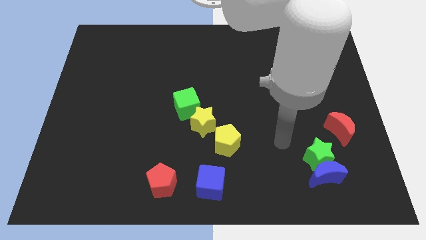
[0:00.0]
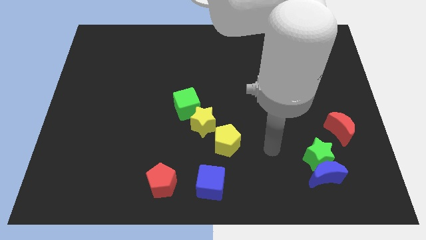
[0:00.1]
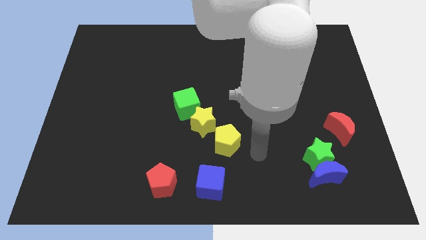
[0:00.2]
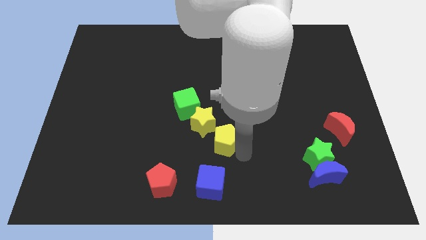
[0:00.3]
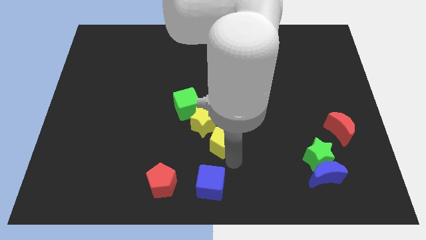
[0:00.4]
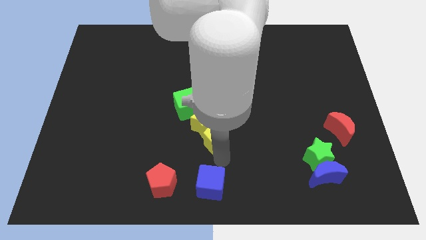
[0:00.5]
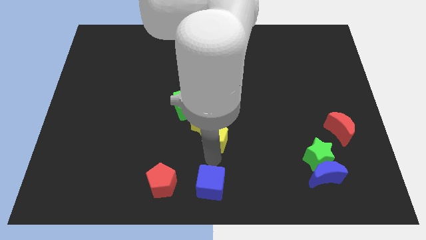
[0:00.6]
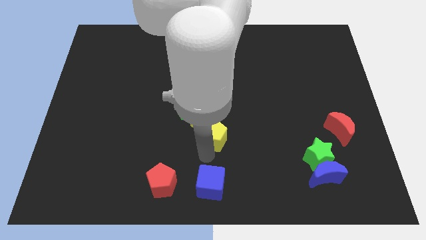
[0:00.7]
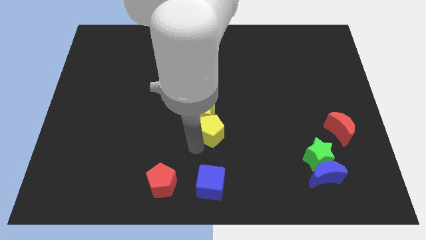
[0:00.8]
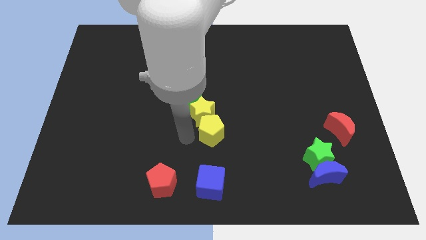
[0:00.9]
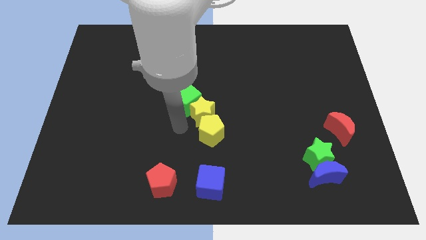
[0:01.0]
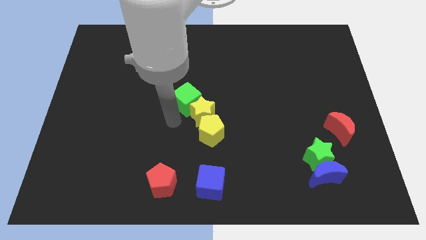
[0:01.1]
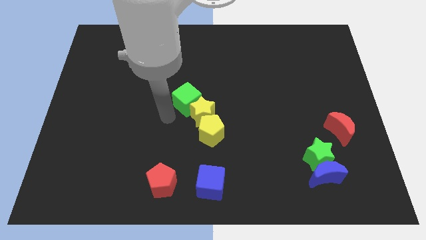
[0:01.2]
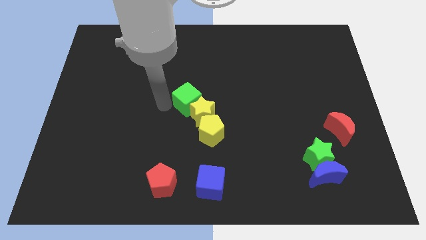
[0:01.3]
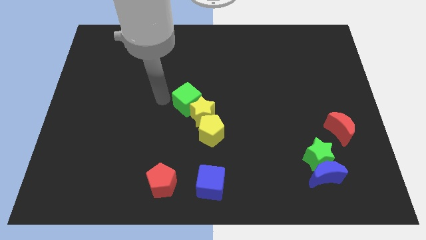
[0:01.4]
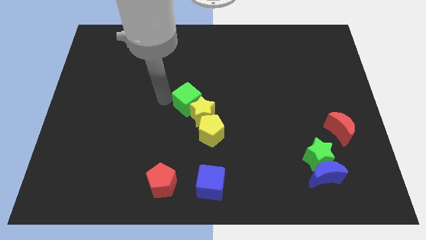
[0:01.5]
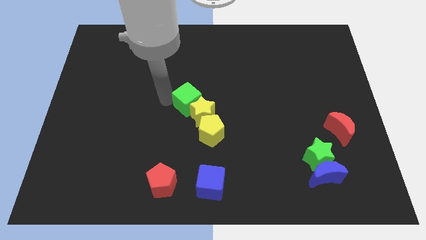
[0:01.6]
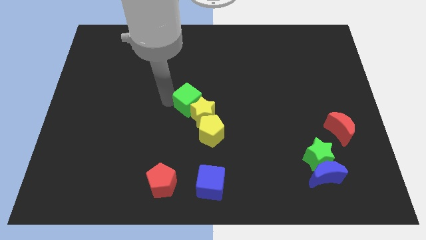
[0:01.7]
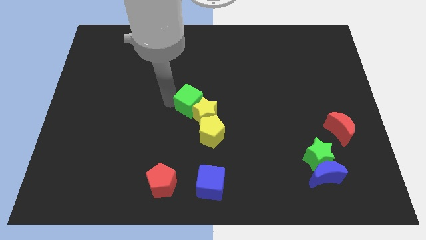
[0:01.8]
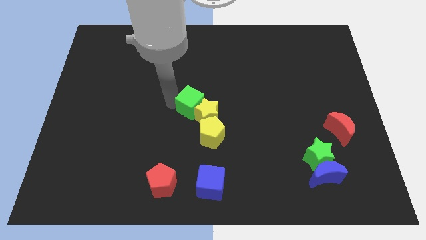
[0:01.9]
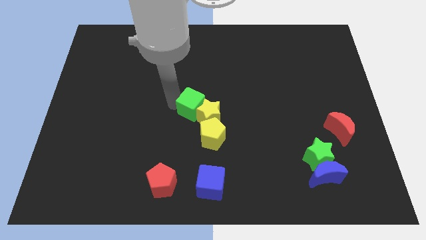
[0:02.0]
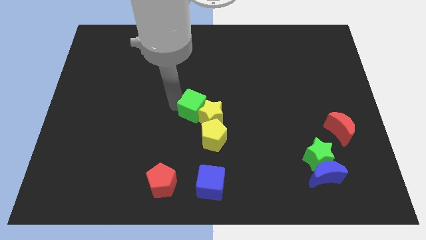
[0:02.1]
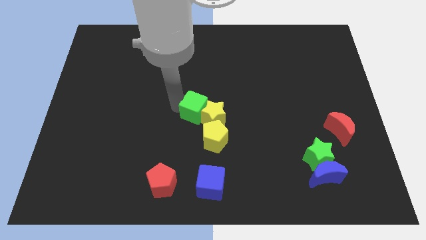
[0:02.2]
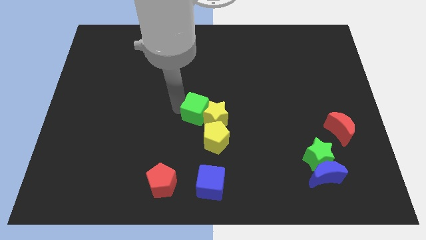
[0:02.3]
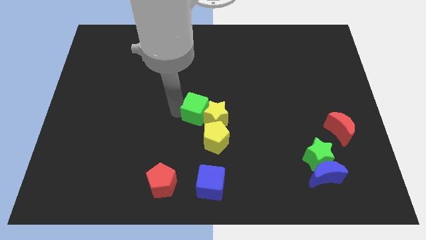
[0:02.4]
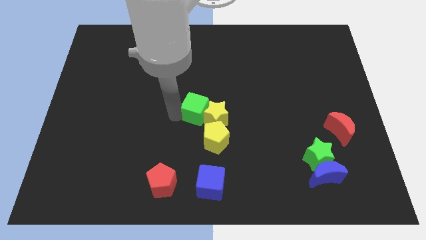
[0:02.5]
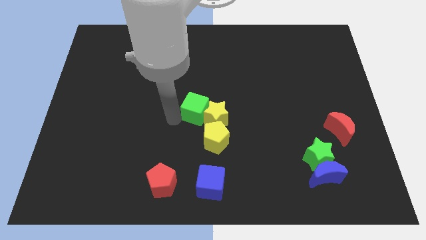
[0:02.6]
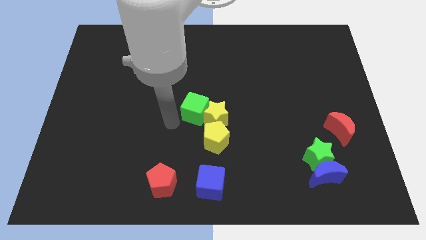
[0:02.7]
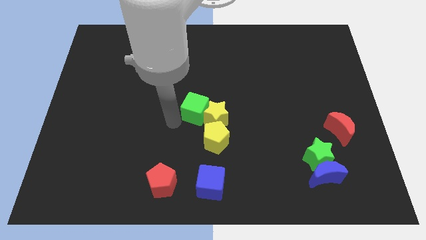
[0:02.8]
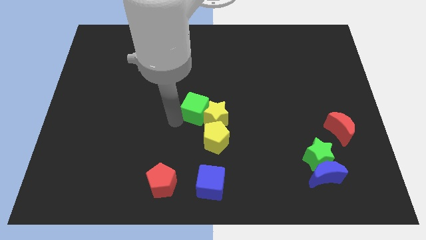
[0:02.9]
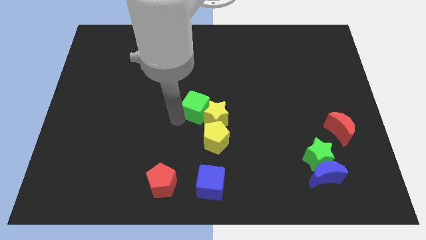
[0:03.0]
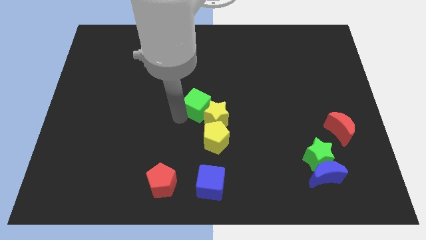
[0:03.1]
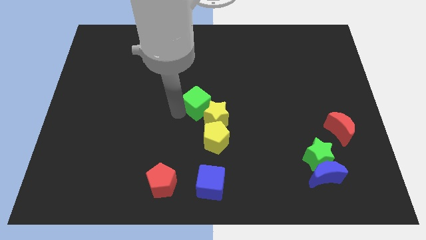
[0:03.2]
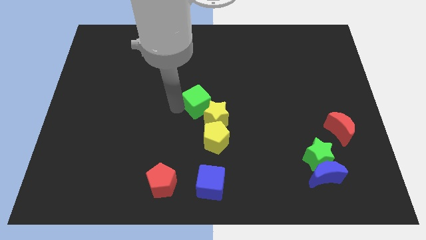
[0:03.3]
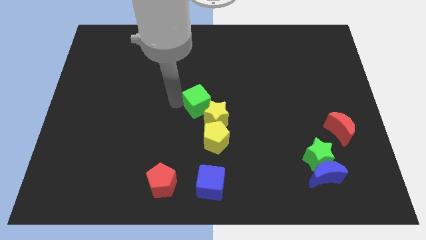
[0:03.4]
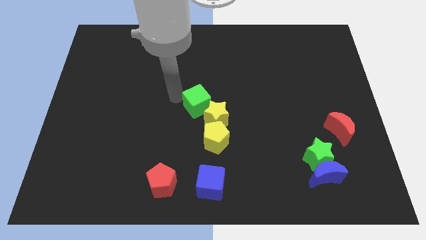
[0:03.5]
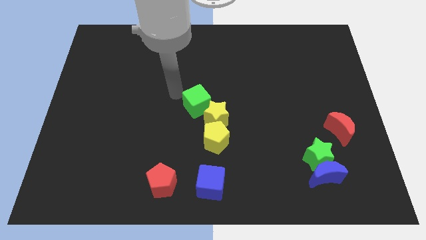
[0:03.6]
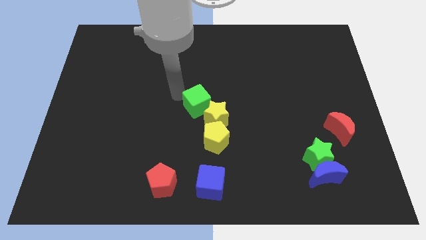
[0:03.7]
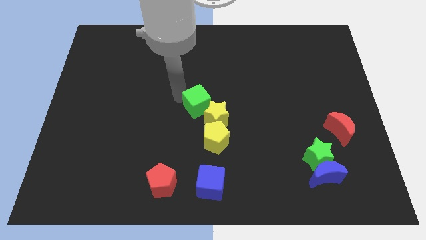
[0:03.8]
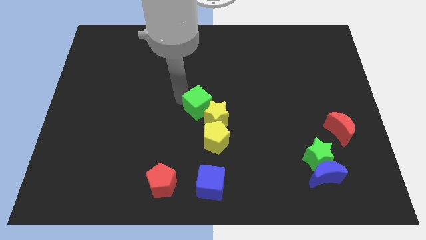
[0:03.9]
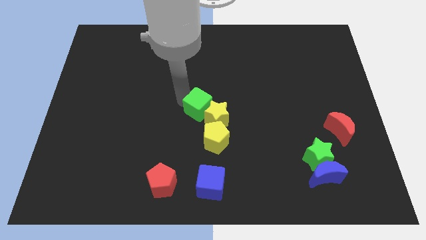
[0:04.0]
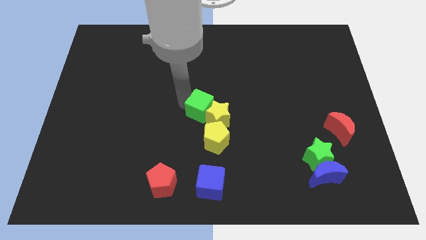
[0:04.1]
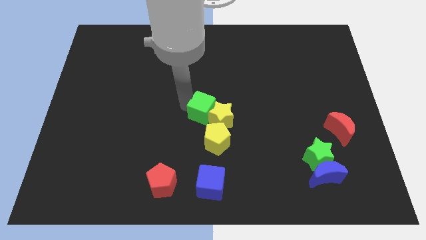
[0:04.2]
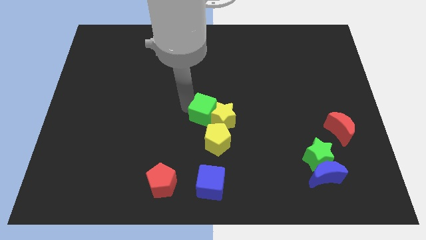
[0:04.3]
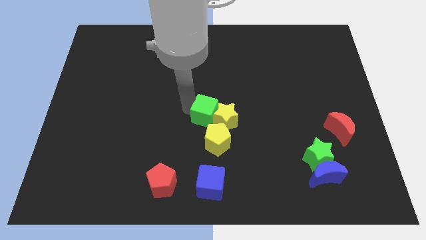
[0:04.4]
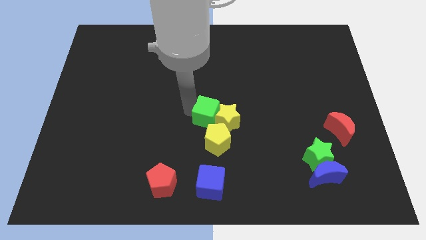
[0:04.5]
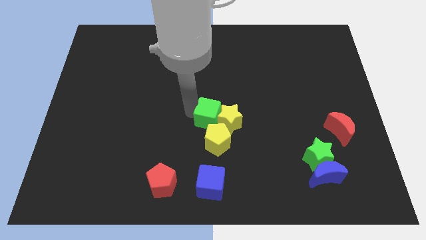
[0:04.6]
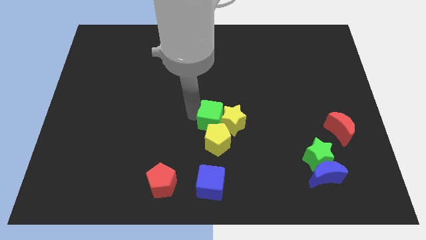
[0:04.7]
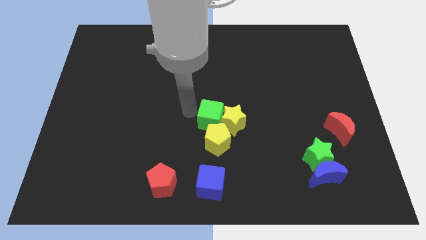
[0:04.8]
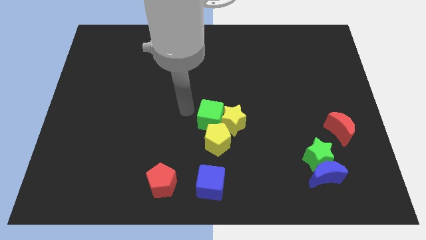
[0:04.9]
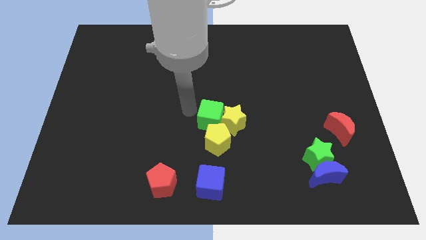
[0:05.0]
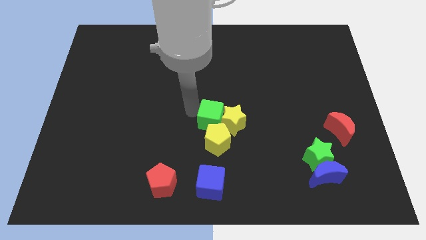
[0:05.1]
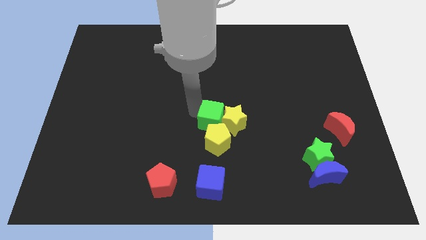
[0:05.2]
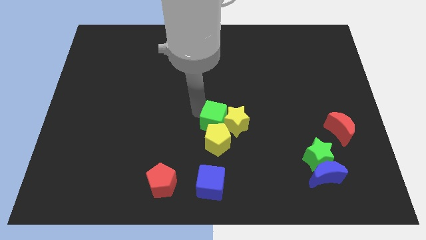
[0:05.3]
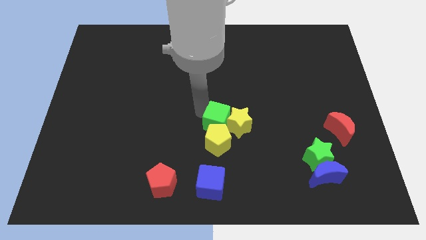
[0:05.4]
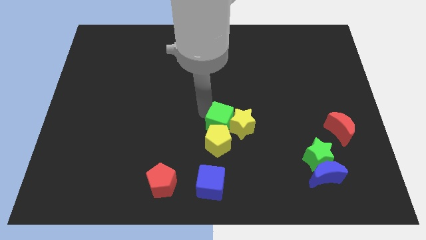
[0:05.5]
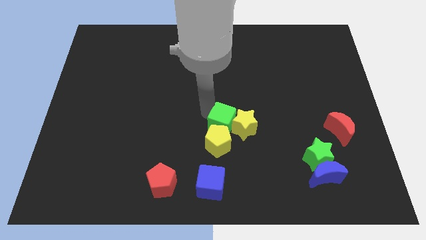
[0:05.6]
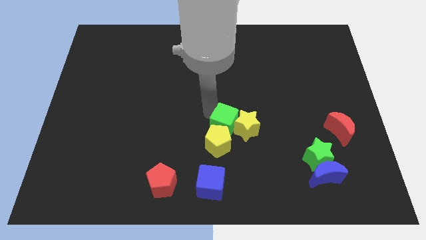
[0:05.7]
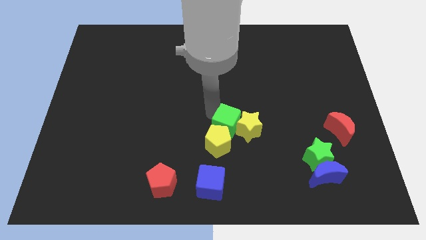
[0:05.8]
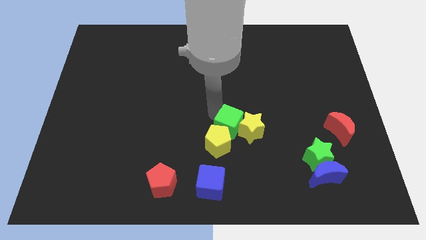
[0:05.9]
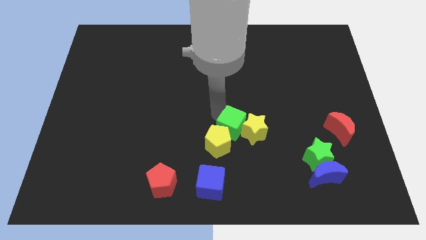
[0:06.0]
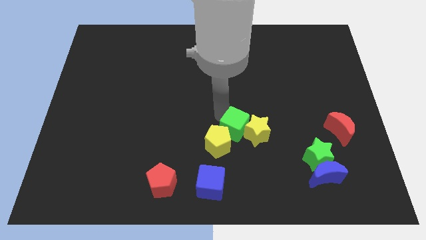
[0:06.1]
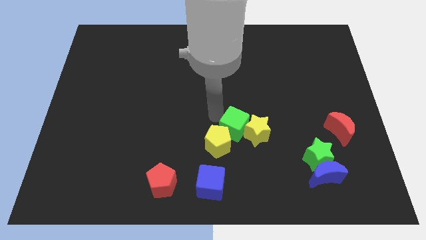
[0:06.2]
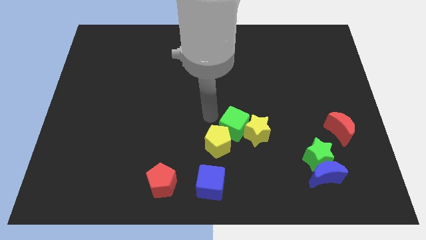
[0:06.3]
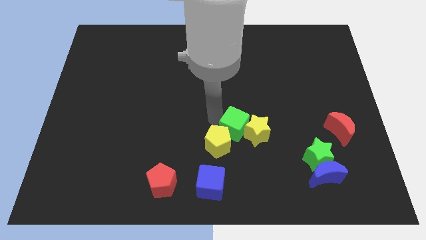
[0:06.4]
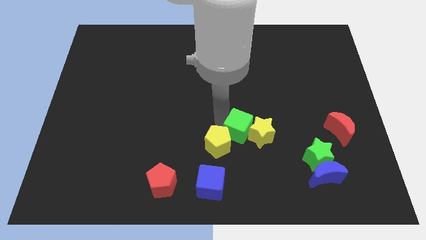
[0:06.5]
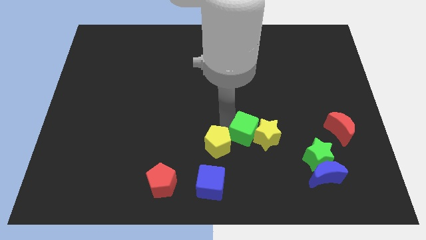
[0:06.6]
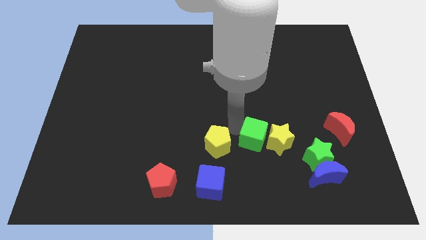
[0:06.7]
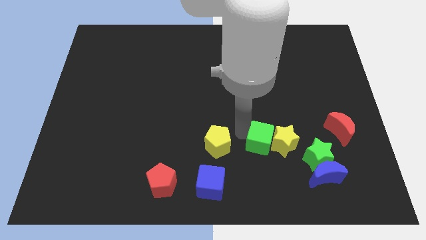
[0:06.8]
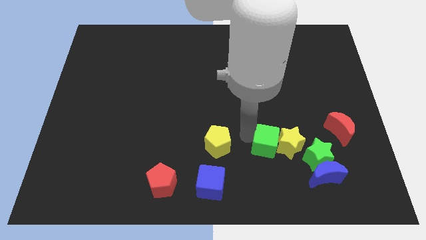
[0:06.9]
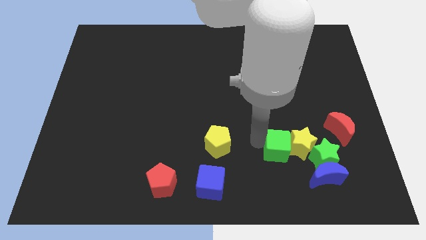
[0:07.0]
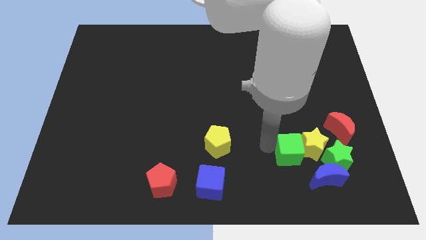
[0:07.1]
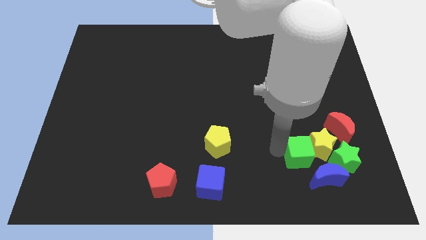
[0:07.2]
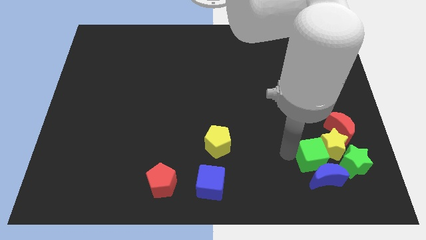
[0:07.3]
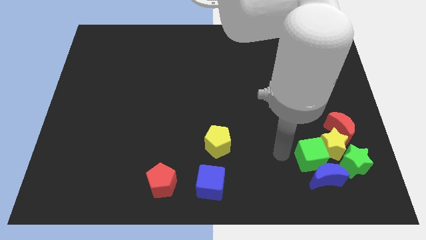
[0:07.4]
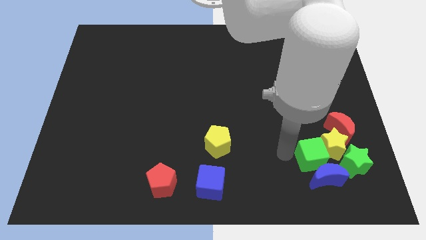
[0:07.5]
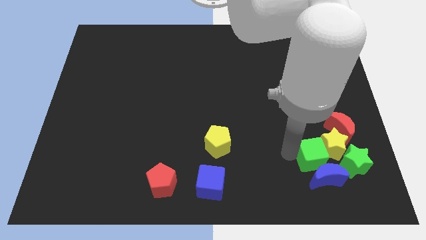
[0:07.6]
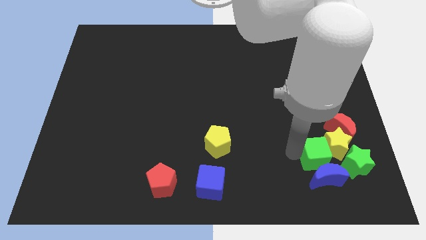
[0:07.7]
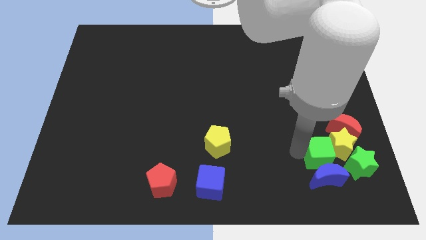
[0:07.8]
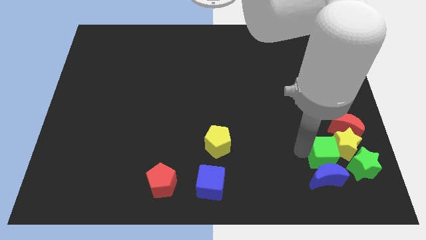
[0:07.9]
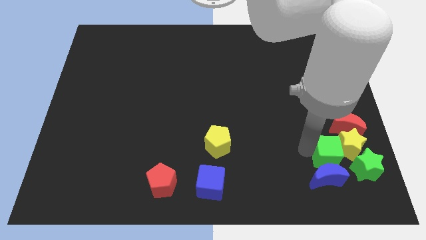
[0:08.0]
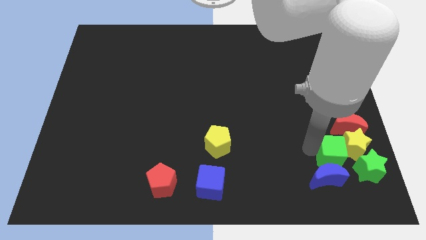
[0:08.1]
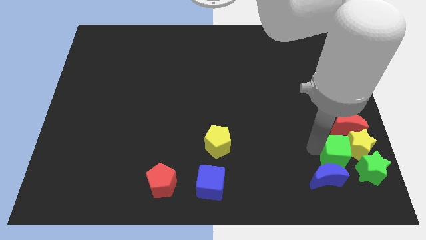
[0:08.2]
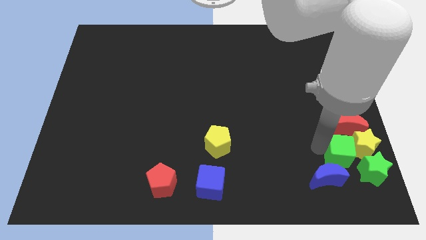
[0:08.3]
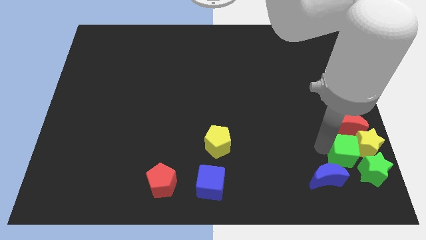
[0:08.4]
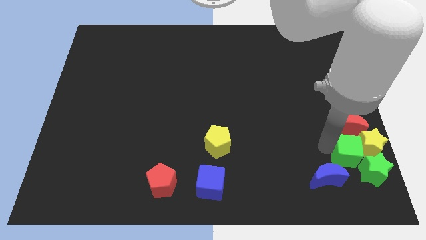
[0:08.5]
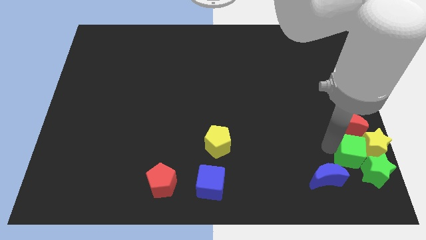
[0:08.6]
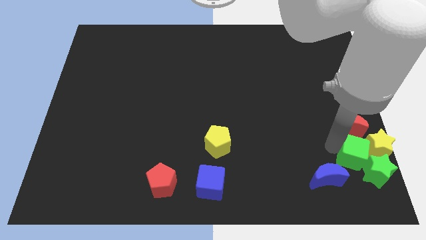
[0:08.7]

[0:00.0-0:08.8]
put the green cube to the green star
